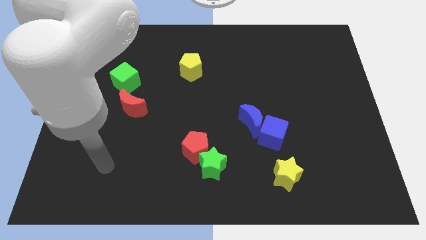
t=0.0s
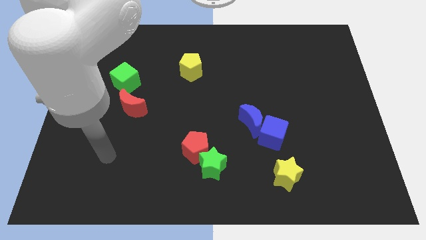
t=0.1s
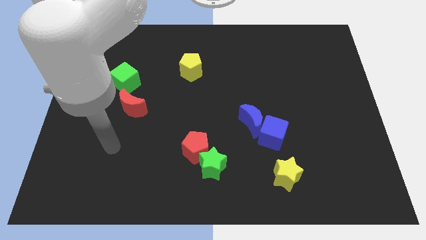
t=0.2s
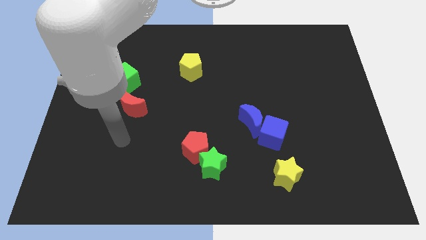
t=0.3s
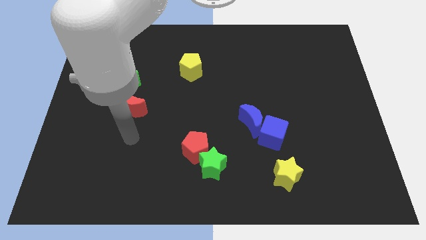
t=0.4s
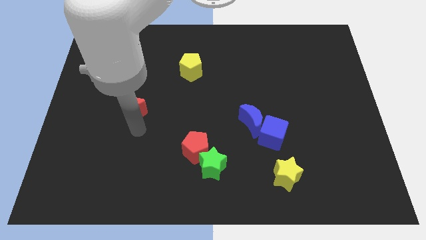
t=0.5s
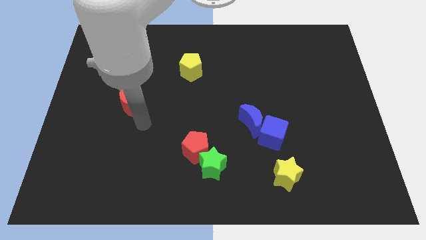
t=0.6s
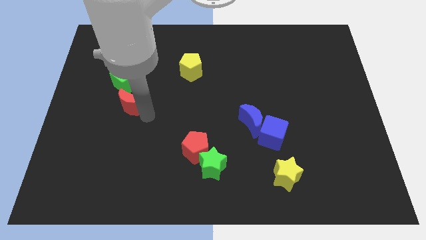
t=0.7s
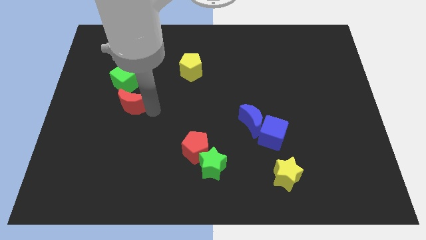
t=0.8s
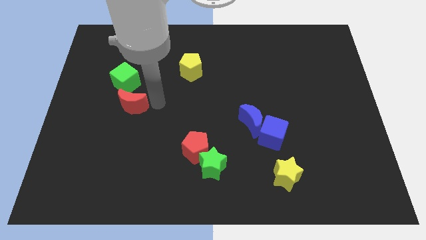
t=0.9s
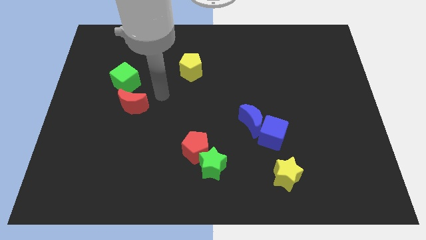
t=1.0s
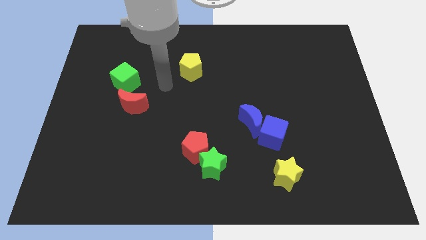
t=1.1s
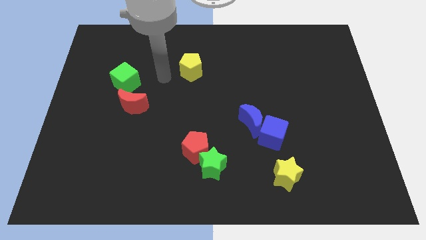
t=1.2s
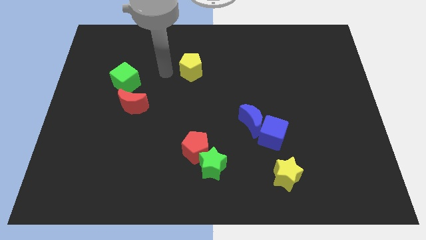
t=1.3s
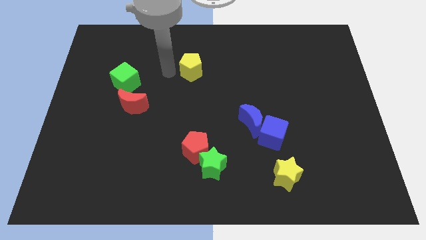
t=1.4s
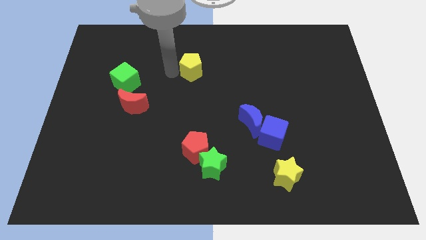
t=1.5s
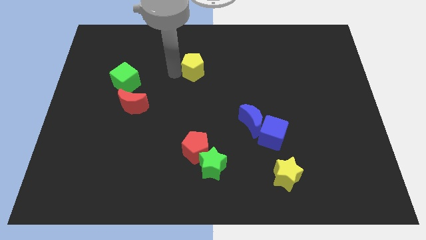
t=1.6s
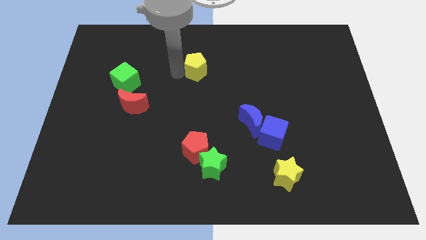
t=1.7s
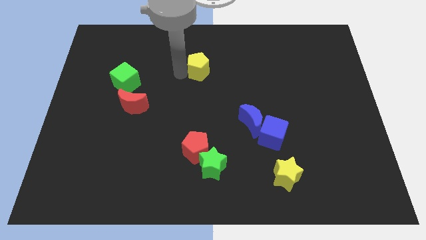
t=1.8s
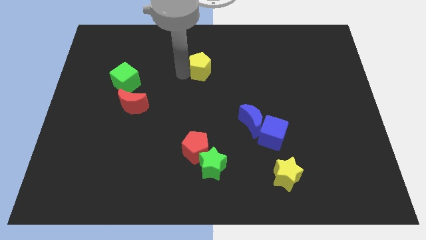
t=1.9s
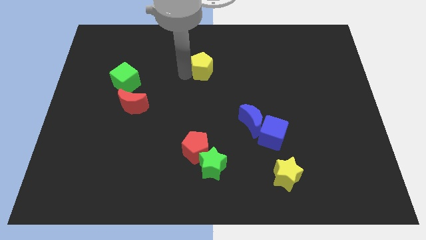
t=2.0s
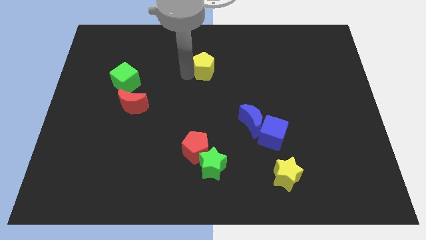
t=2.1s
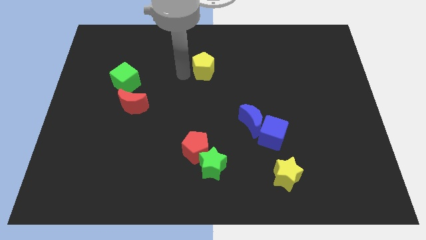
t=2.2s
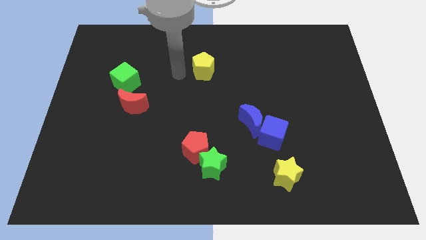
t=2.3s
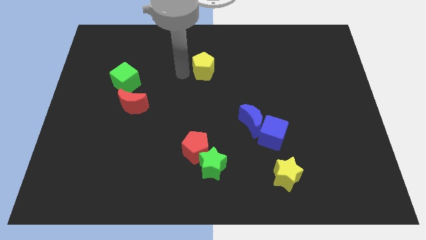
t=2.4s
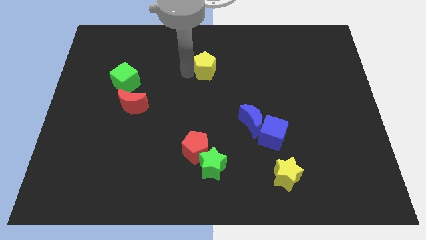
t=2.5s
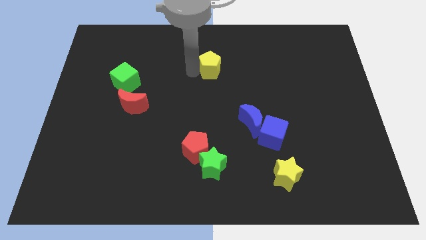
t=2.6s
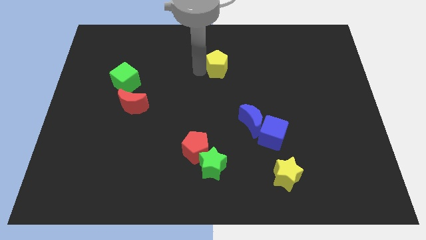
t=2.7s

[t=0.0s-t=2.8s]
push the yellow pentagon a little bit to the right

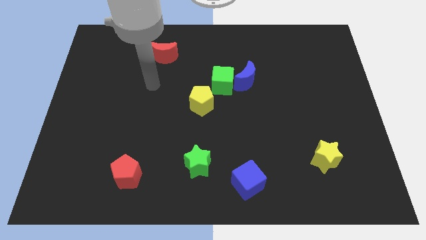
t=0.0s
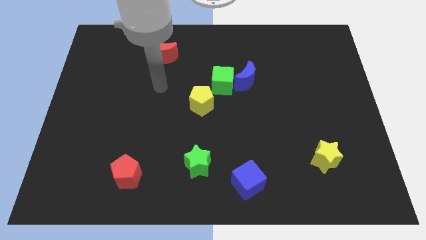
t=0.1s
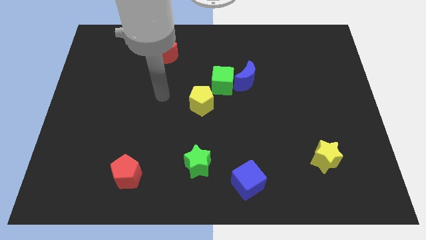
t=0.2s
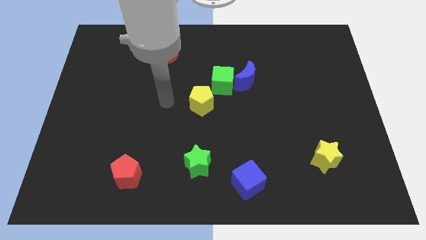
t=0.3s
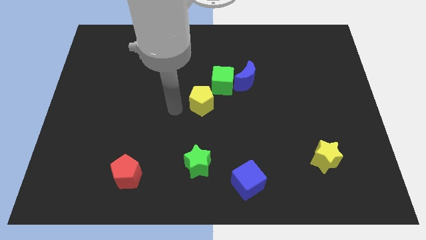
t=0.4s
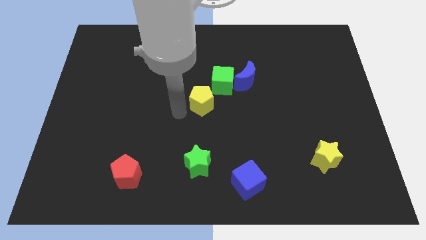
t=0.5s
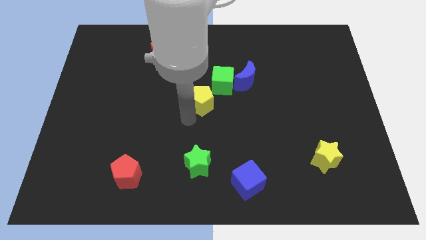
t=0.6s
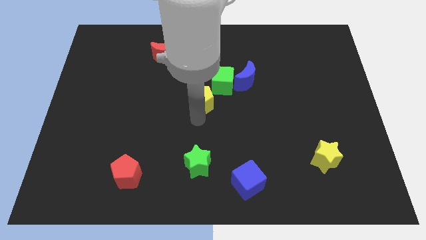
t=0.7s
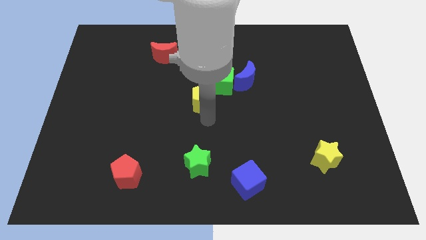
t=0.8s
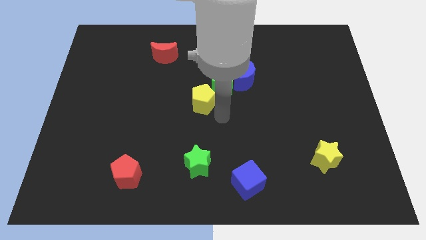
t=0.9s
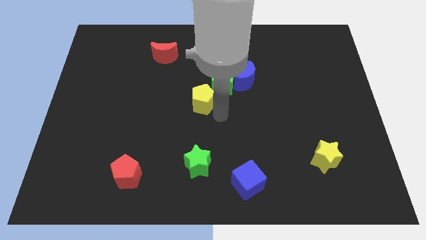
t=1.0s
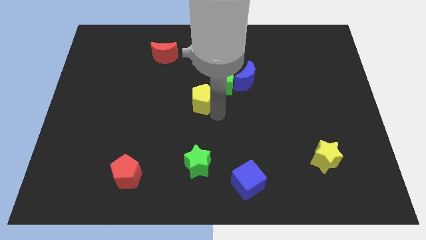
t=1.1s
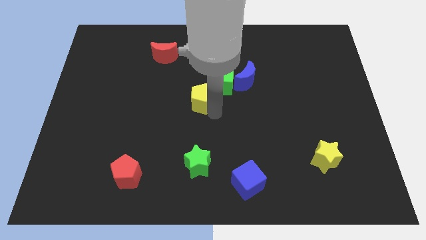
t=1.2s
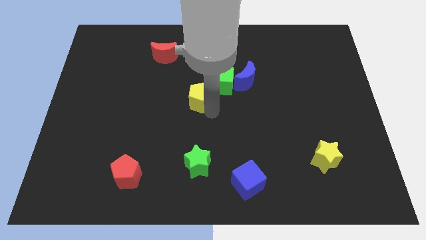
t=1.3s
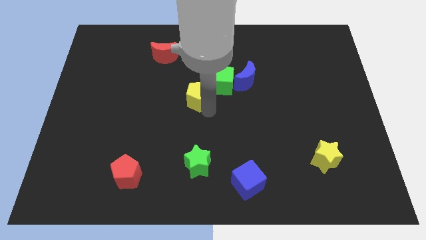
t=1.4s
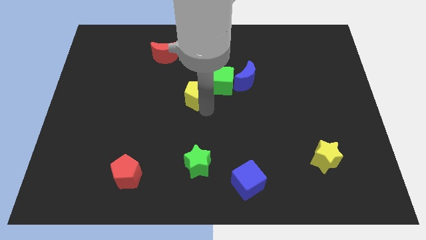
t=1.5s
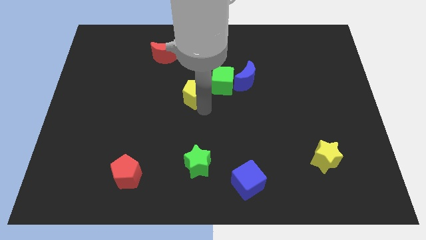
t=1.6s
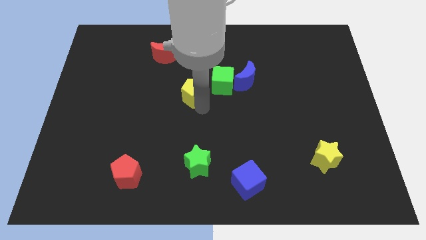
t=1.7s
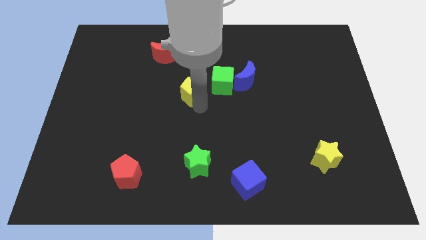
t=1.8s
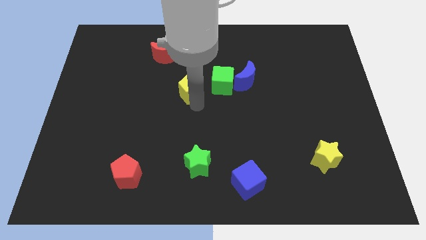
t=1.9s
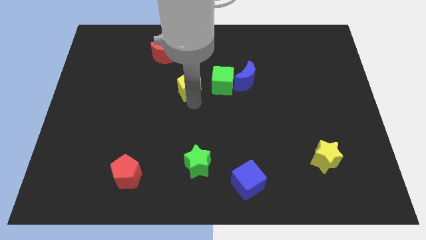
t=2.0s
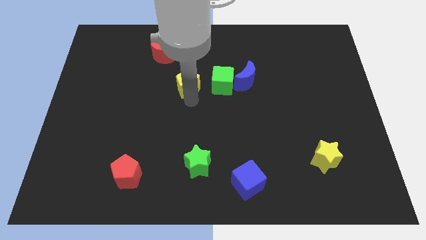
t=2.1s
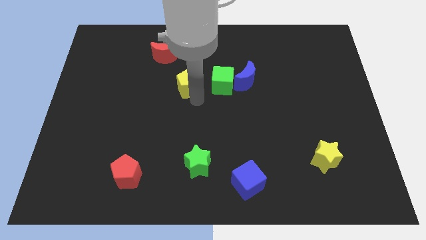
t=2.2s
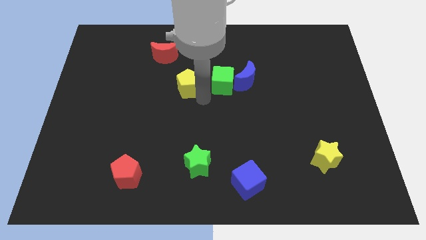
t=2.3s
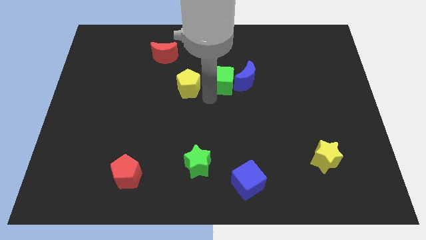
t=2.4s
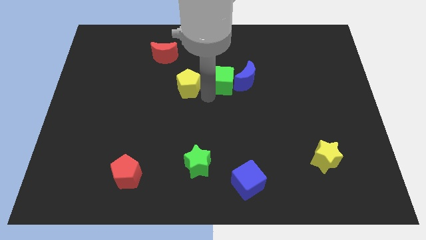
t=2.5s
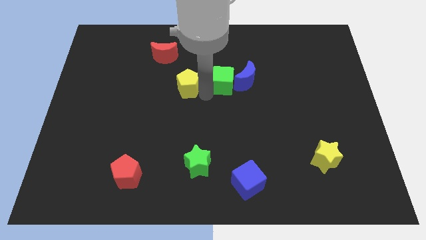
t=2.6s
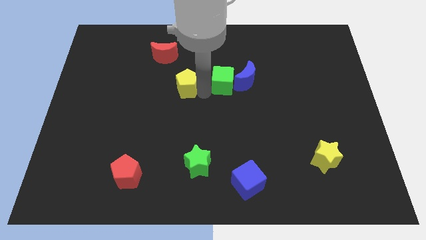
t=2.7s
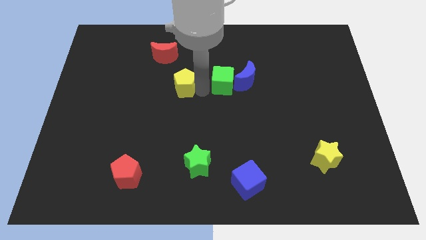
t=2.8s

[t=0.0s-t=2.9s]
push the yellow pentagon diagonally upwards and to the left a little bit

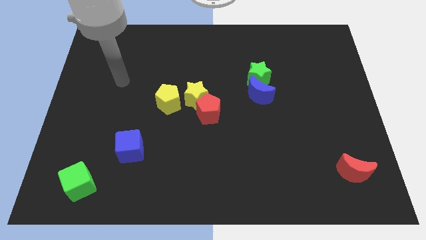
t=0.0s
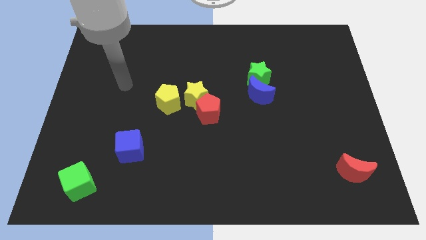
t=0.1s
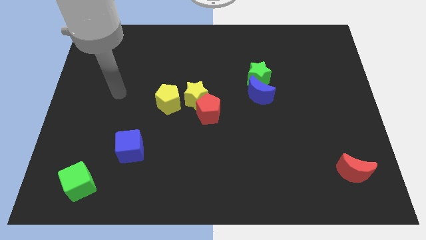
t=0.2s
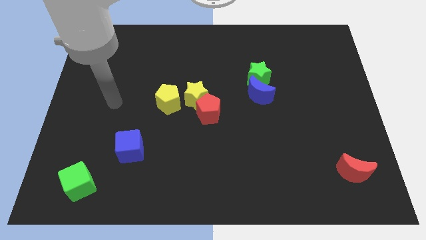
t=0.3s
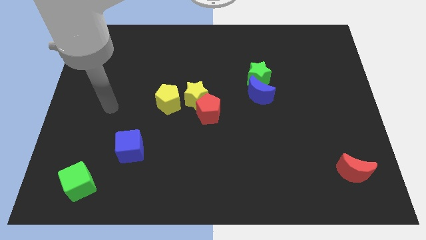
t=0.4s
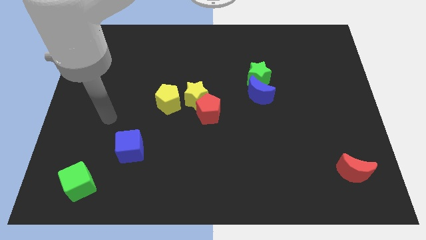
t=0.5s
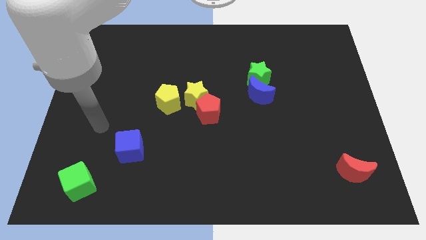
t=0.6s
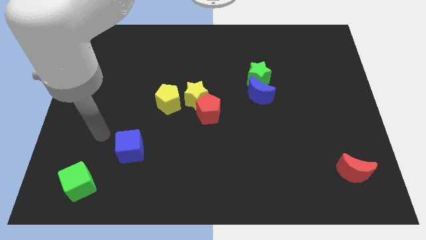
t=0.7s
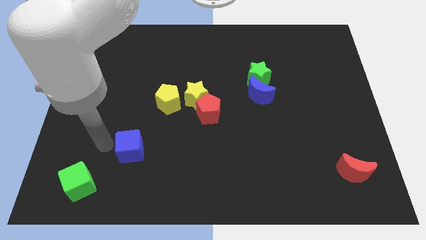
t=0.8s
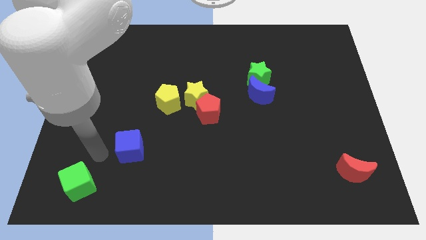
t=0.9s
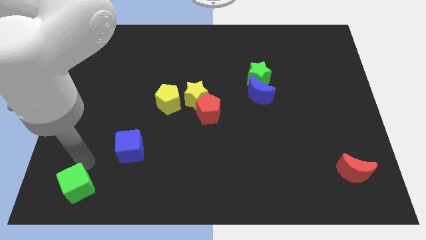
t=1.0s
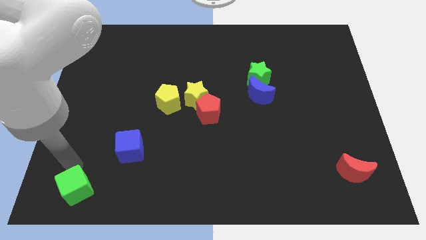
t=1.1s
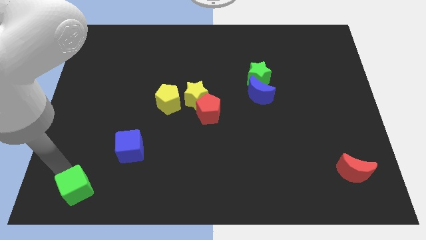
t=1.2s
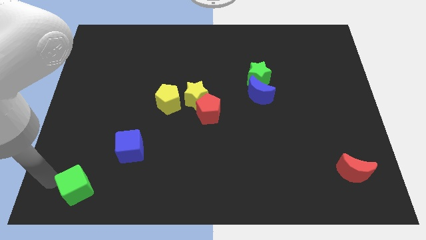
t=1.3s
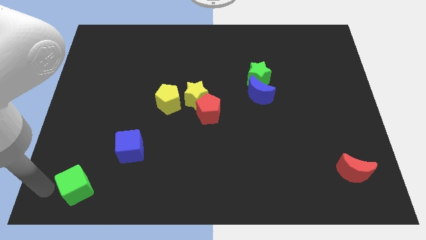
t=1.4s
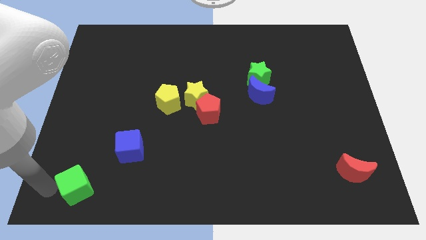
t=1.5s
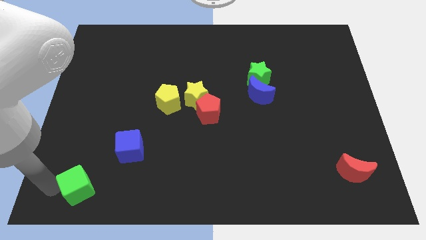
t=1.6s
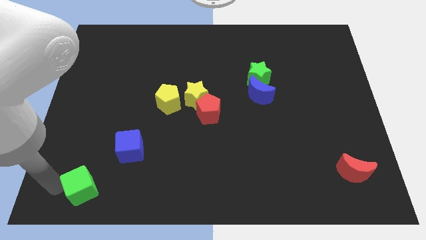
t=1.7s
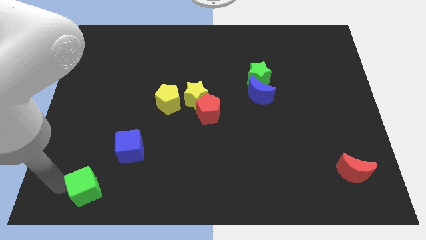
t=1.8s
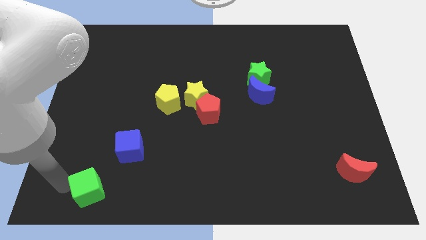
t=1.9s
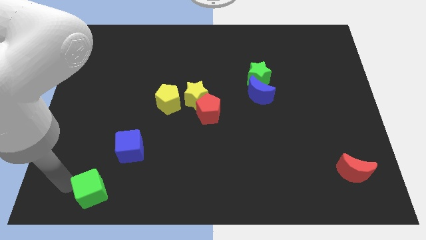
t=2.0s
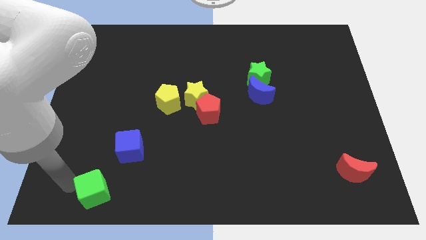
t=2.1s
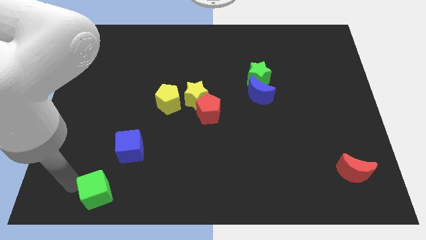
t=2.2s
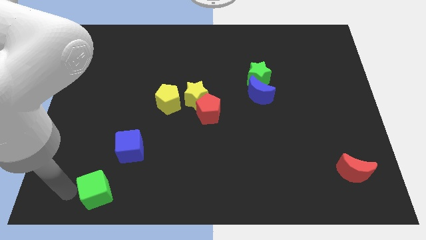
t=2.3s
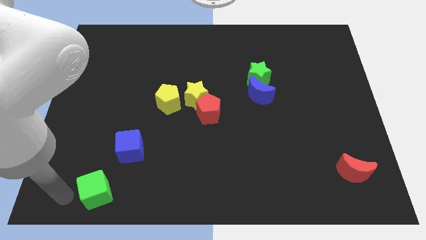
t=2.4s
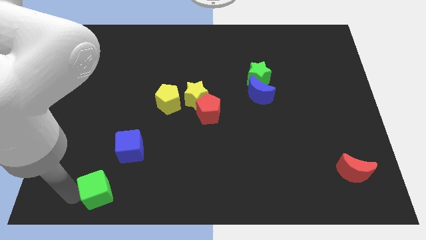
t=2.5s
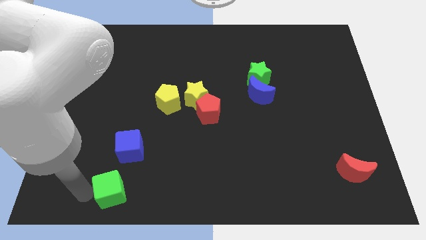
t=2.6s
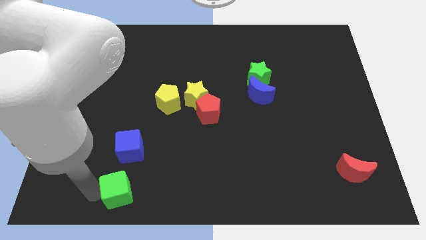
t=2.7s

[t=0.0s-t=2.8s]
move the green cube a bit right
